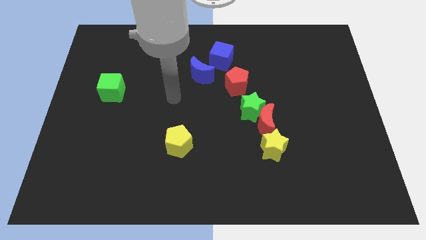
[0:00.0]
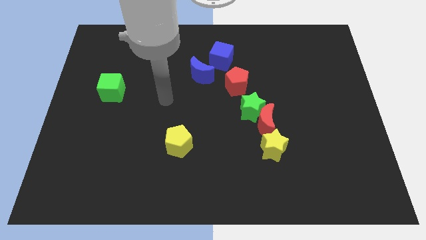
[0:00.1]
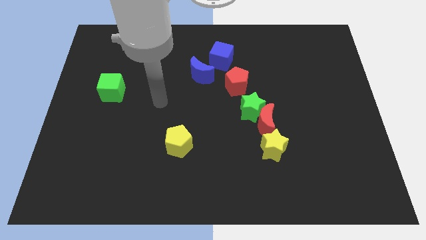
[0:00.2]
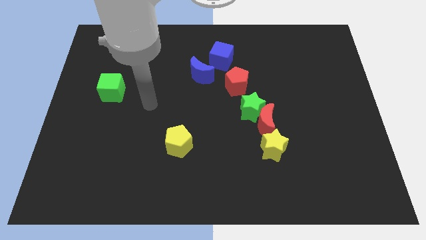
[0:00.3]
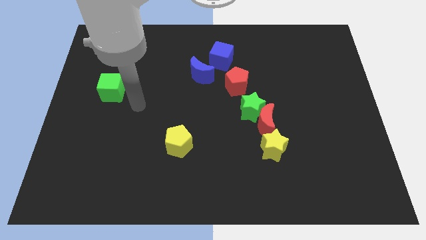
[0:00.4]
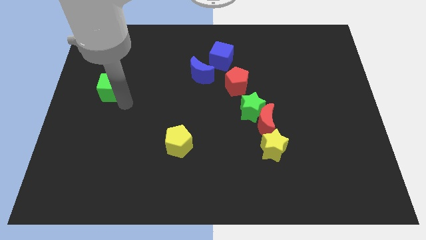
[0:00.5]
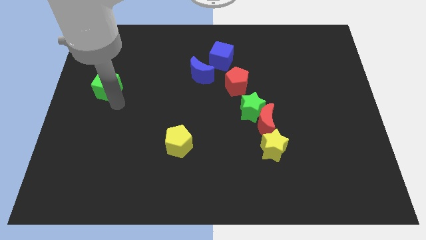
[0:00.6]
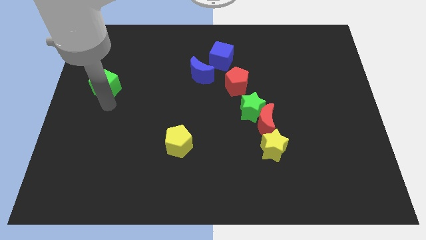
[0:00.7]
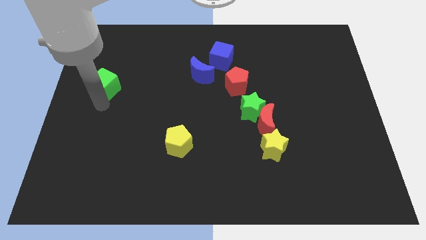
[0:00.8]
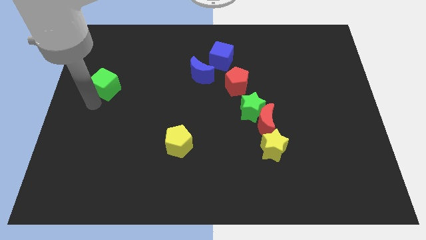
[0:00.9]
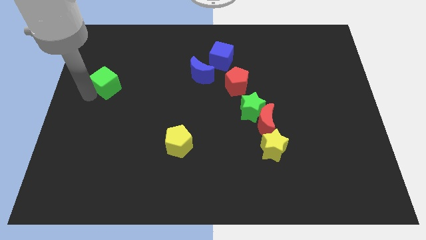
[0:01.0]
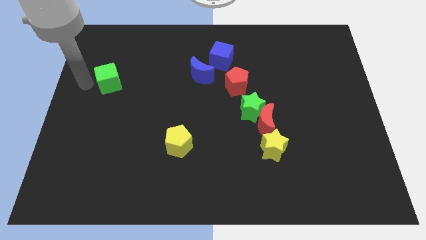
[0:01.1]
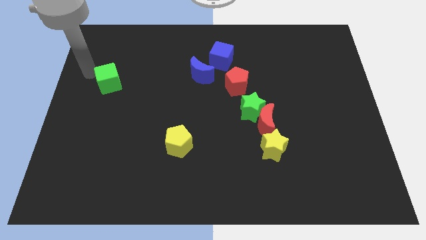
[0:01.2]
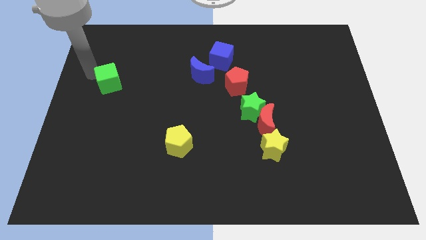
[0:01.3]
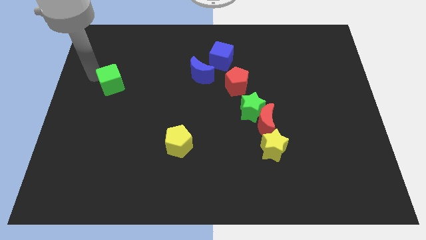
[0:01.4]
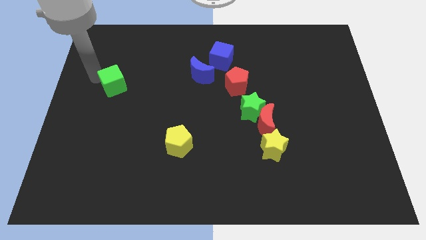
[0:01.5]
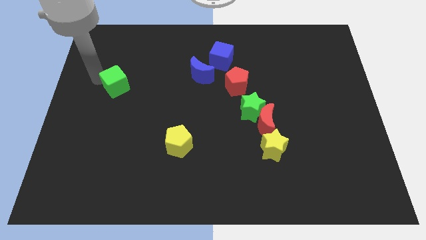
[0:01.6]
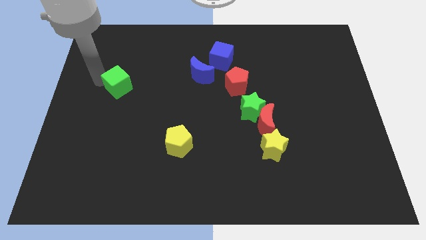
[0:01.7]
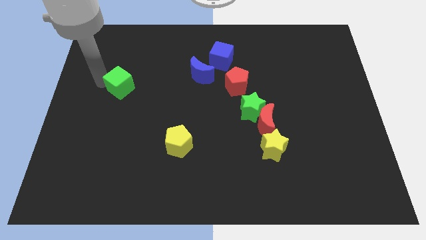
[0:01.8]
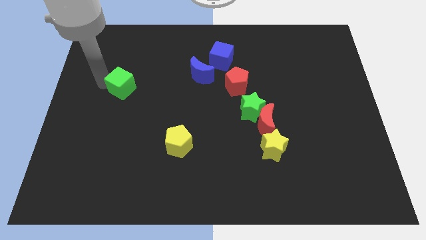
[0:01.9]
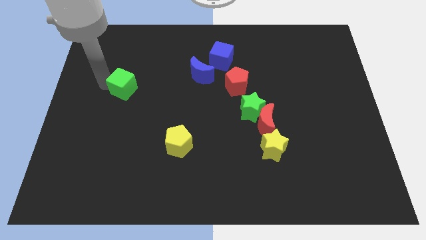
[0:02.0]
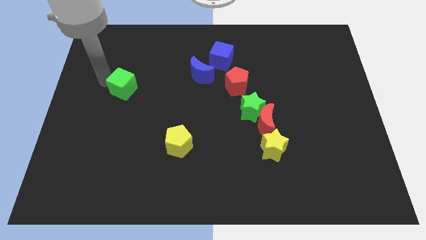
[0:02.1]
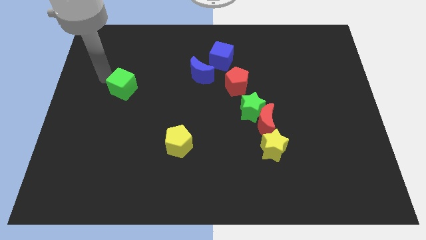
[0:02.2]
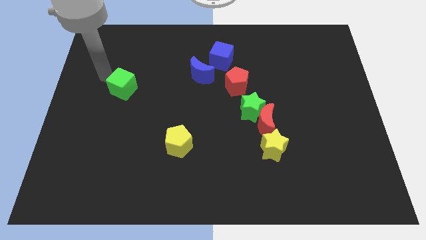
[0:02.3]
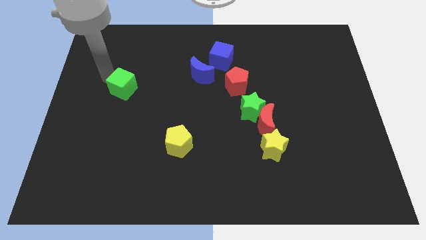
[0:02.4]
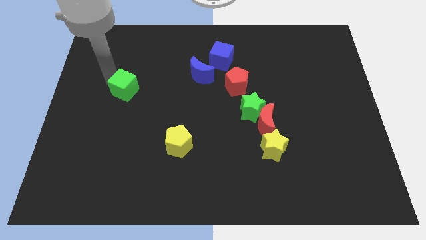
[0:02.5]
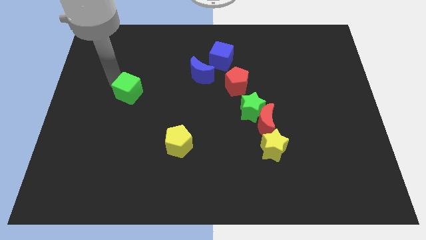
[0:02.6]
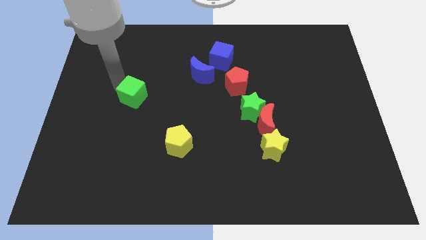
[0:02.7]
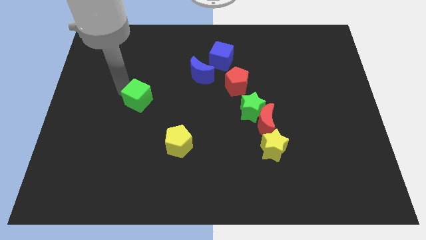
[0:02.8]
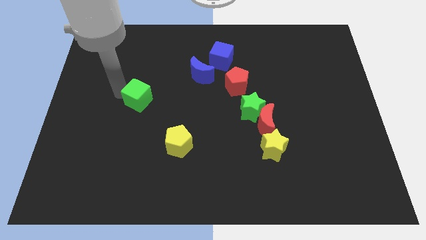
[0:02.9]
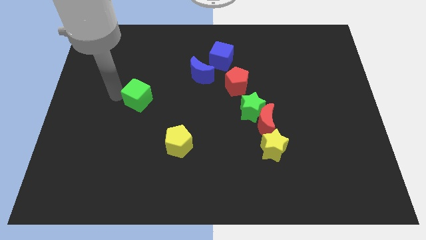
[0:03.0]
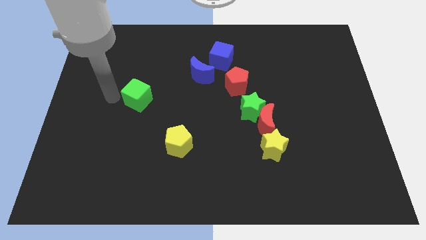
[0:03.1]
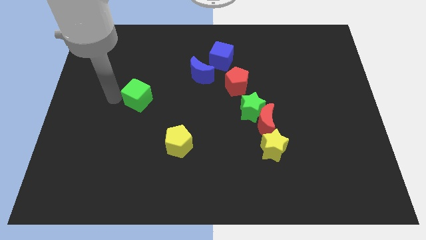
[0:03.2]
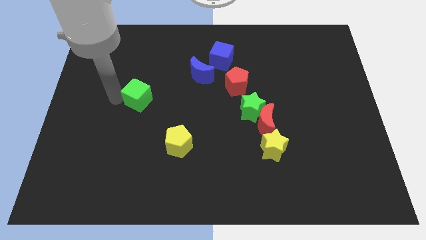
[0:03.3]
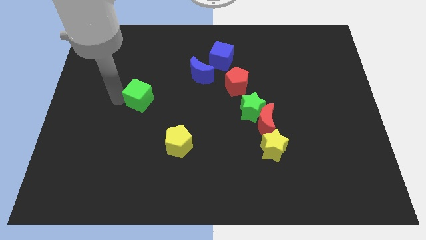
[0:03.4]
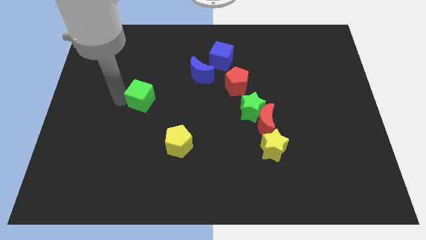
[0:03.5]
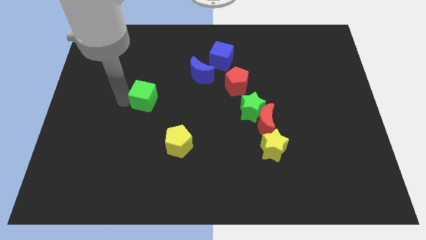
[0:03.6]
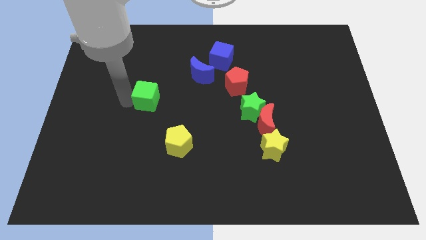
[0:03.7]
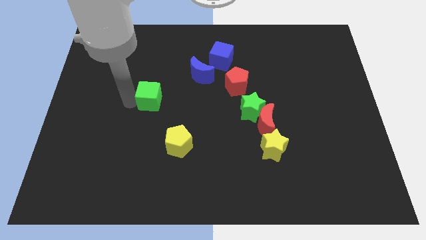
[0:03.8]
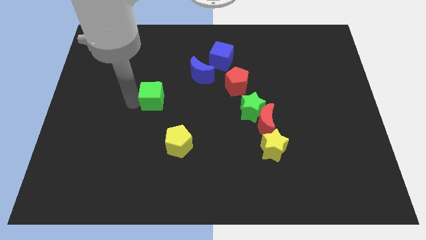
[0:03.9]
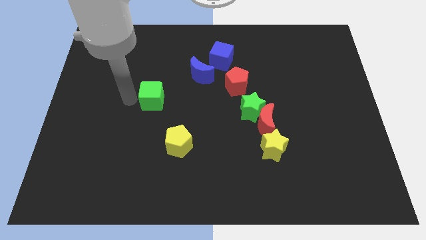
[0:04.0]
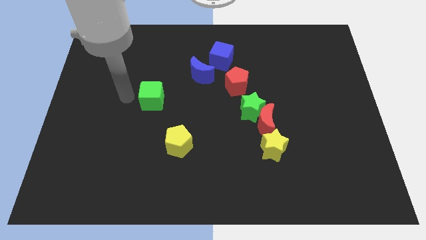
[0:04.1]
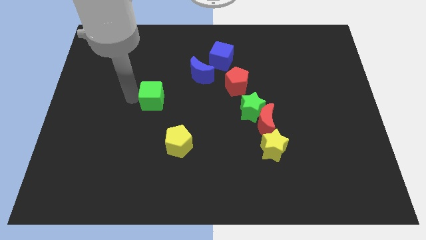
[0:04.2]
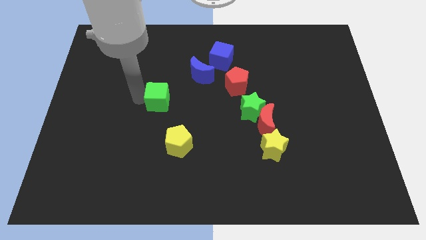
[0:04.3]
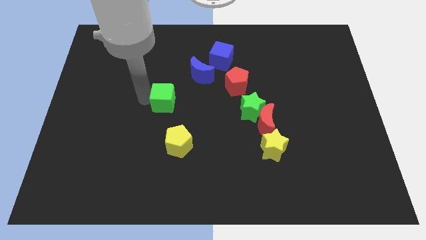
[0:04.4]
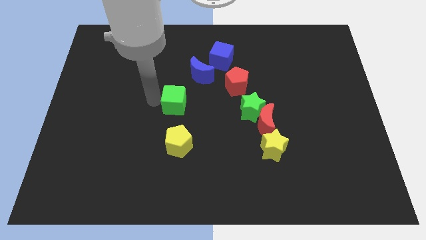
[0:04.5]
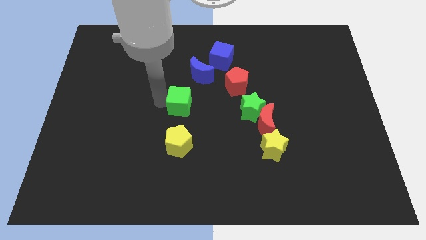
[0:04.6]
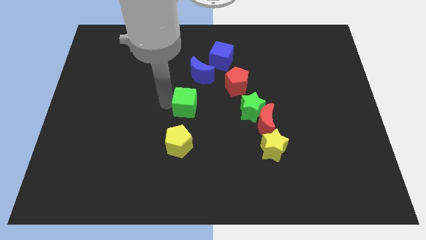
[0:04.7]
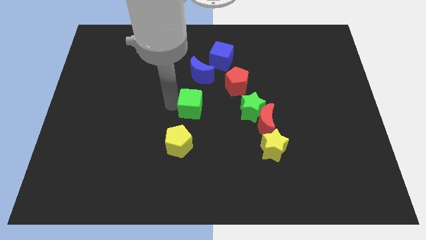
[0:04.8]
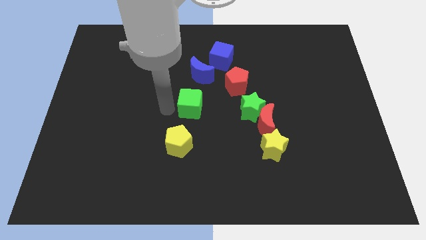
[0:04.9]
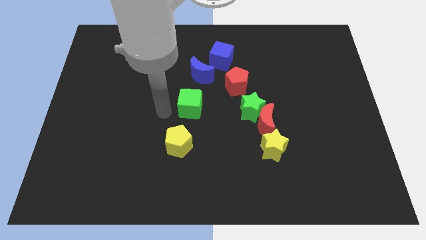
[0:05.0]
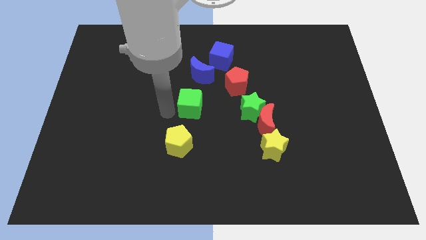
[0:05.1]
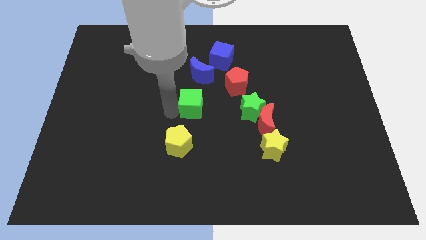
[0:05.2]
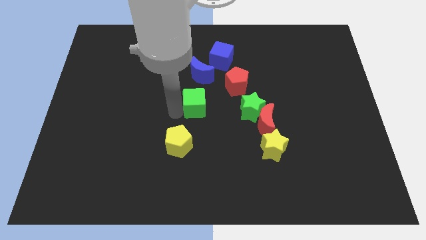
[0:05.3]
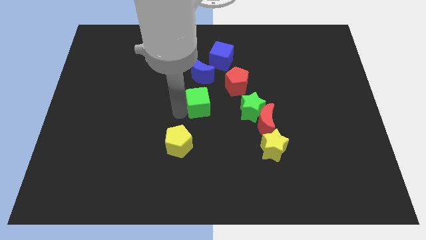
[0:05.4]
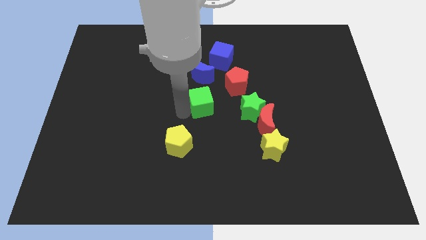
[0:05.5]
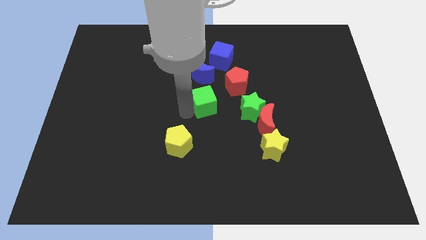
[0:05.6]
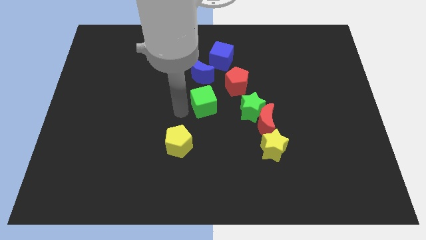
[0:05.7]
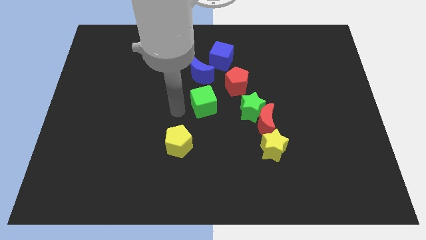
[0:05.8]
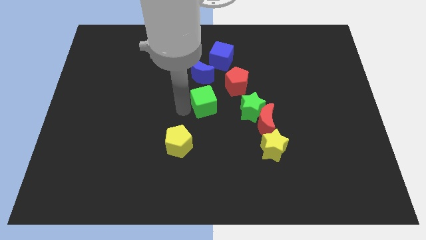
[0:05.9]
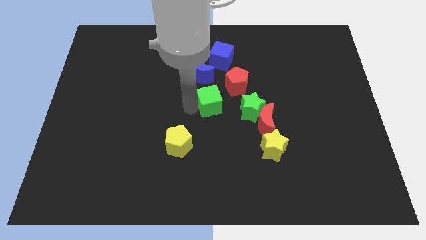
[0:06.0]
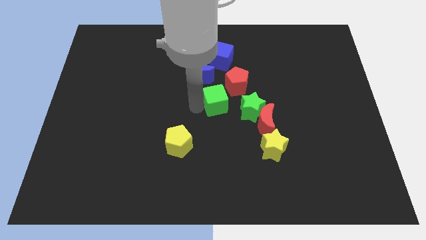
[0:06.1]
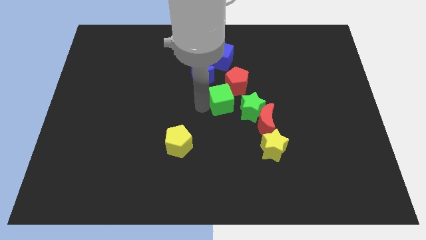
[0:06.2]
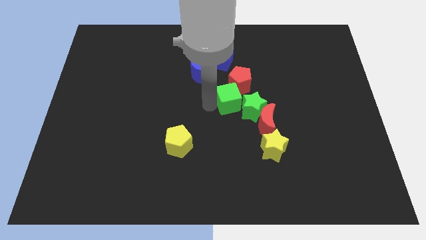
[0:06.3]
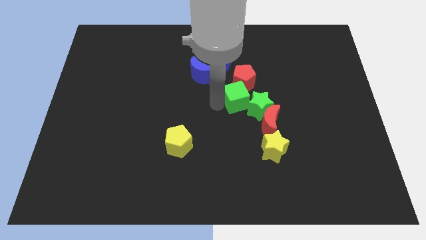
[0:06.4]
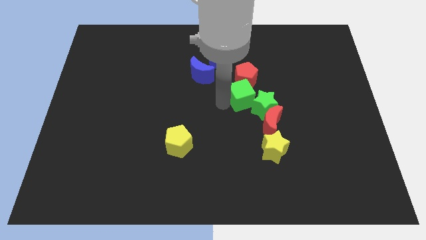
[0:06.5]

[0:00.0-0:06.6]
slide the green cube to the bottom right of the red pentagon

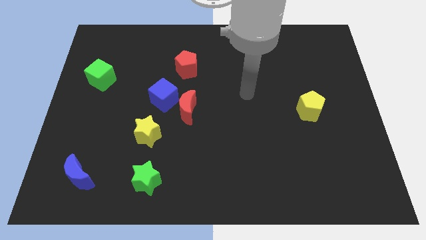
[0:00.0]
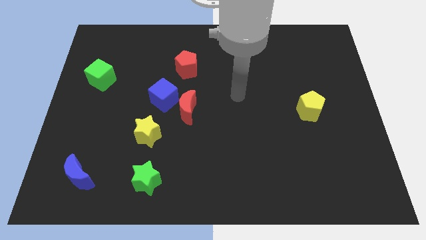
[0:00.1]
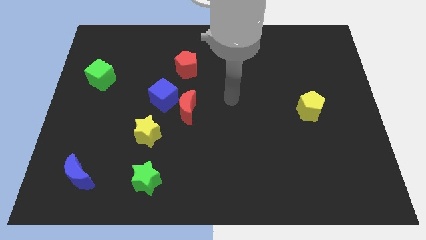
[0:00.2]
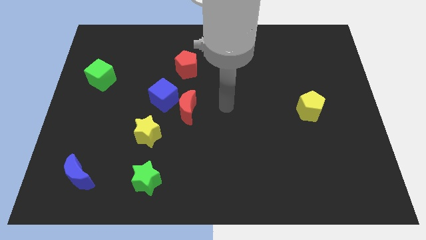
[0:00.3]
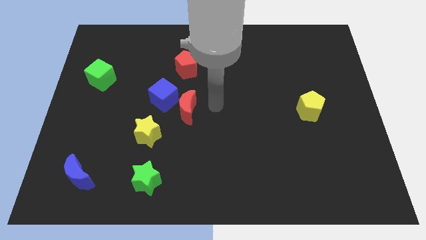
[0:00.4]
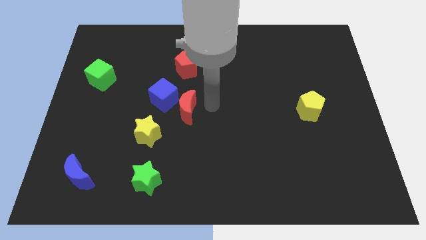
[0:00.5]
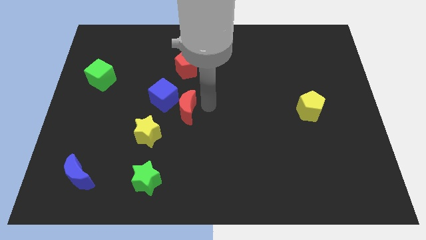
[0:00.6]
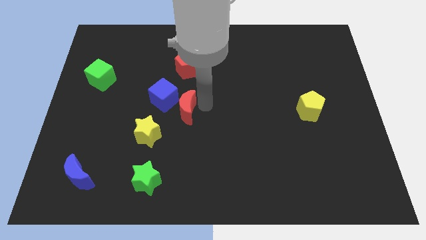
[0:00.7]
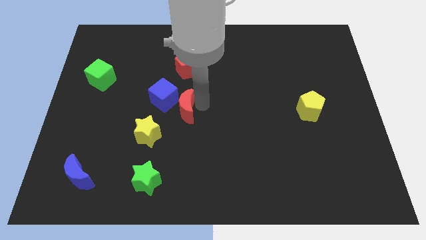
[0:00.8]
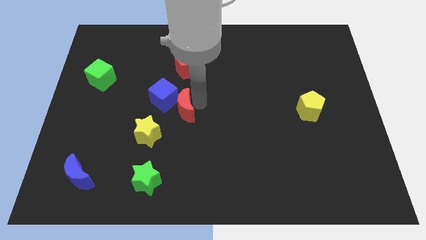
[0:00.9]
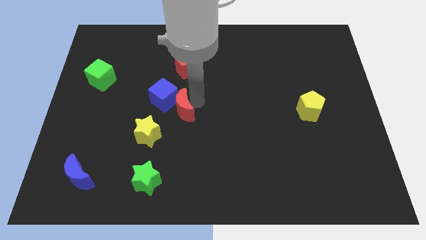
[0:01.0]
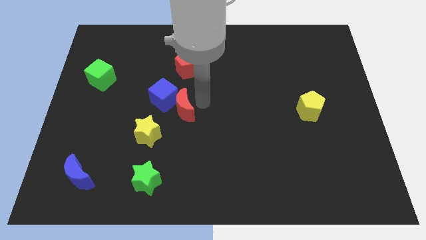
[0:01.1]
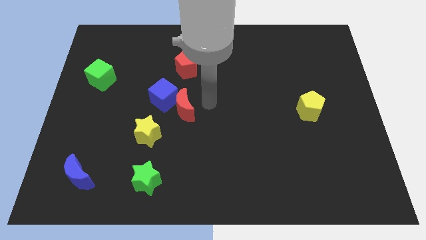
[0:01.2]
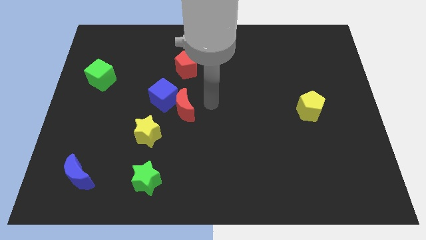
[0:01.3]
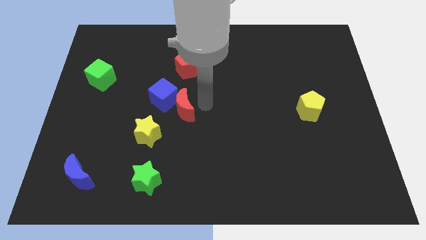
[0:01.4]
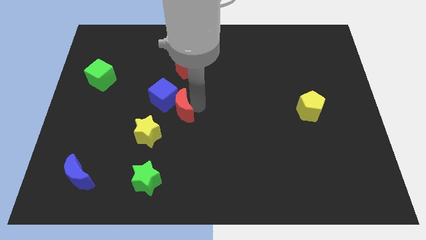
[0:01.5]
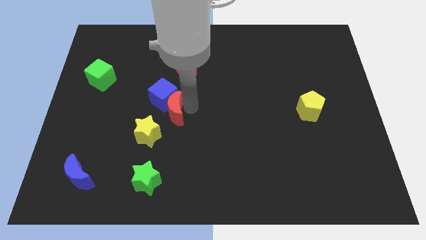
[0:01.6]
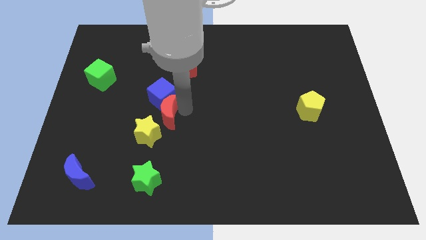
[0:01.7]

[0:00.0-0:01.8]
move the red moon to the bottom left side of the blue cube
